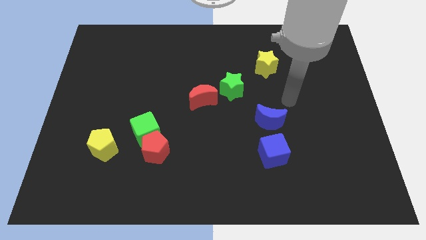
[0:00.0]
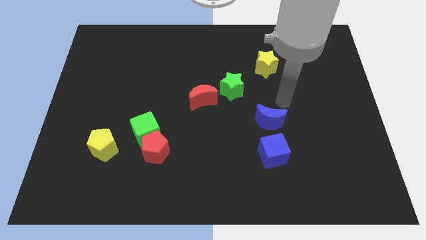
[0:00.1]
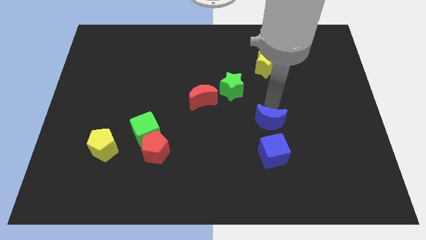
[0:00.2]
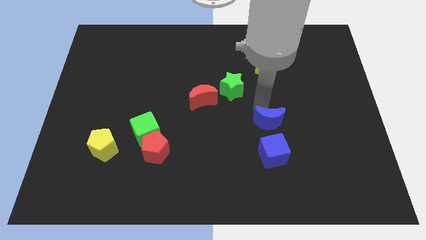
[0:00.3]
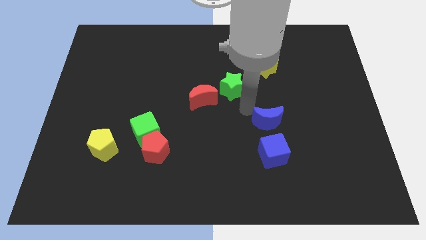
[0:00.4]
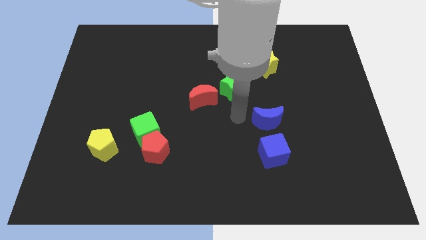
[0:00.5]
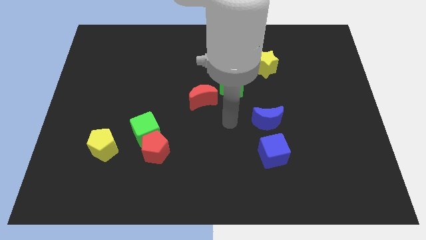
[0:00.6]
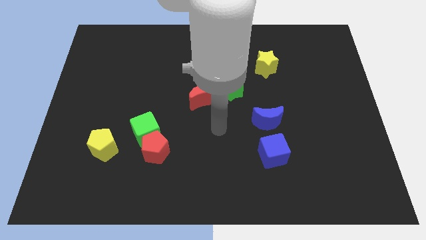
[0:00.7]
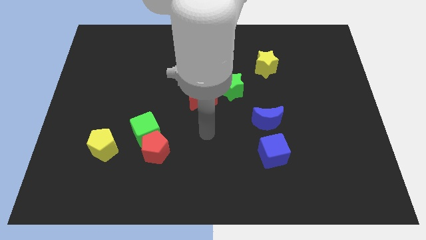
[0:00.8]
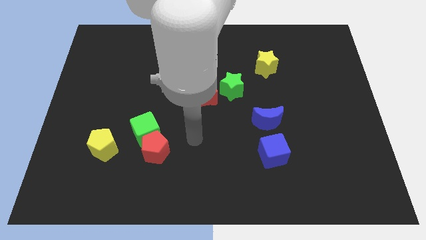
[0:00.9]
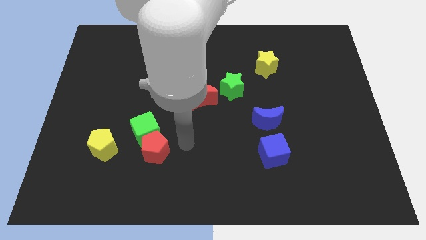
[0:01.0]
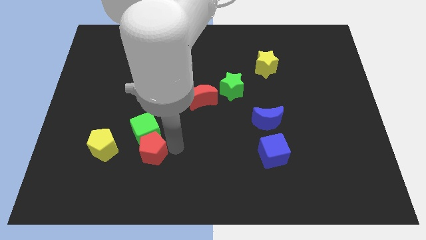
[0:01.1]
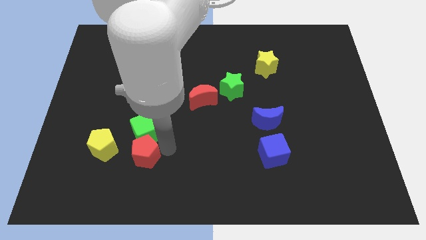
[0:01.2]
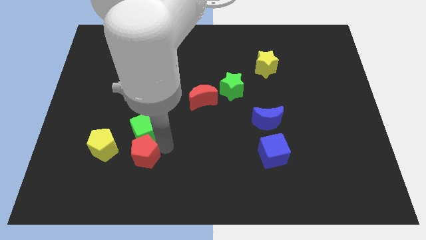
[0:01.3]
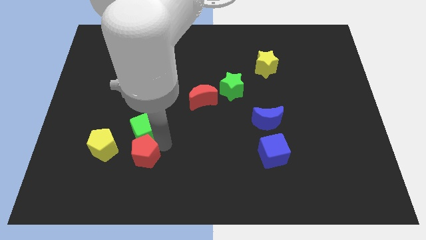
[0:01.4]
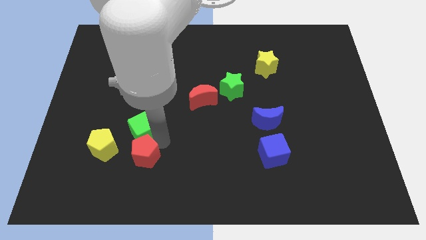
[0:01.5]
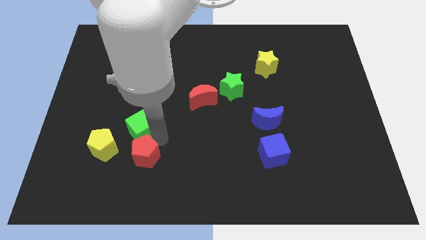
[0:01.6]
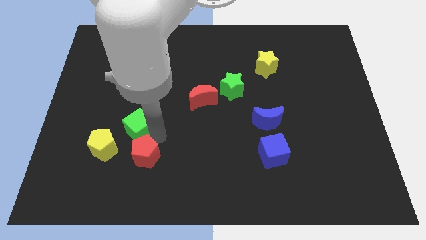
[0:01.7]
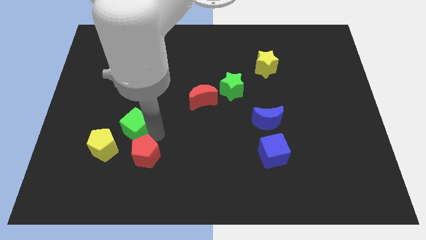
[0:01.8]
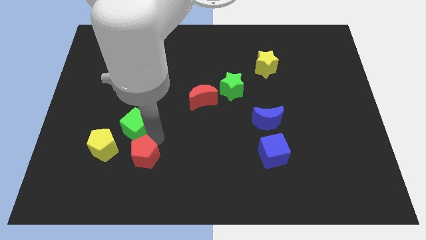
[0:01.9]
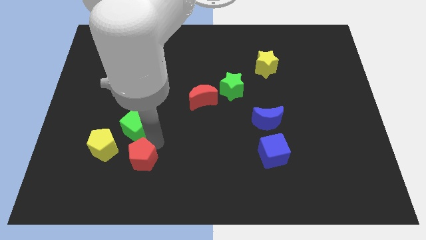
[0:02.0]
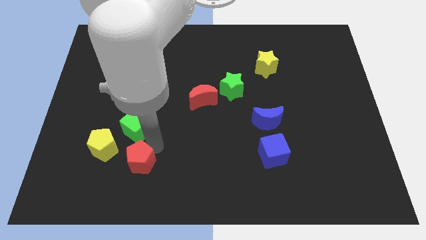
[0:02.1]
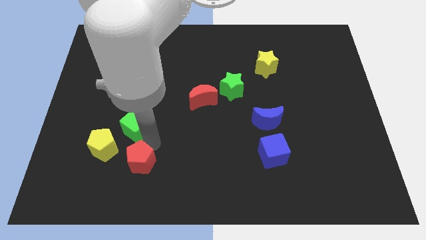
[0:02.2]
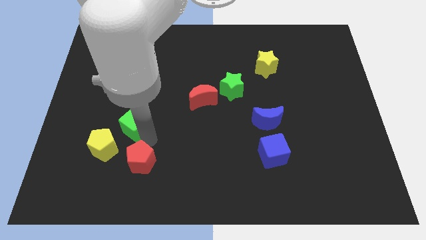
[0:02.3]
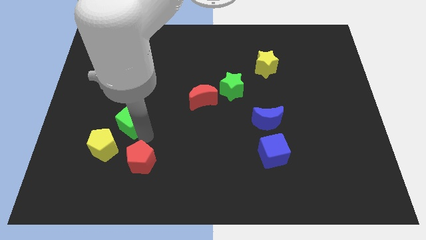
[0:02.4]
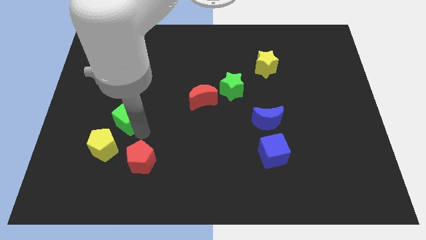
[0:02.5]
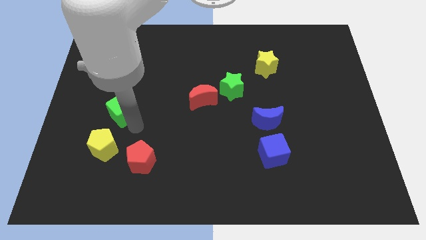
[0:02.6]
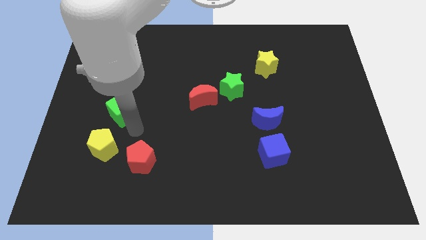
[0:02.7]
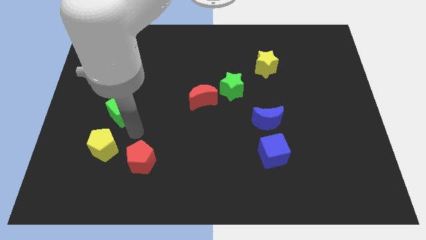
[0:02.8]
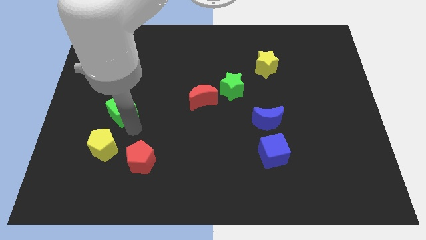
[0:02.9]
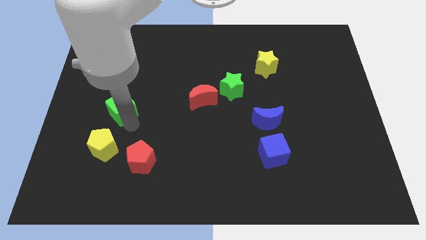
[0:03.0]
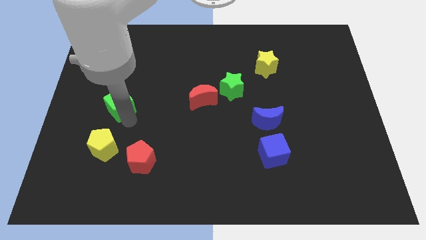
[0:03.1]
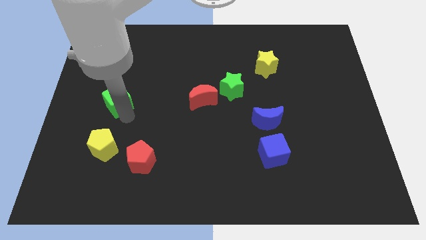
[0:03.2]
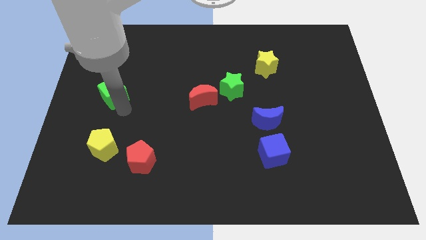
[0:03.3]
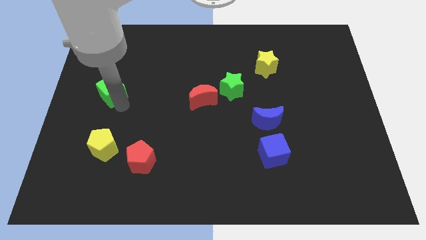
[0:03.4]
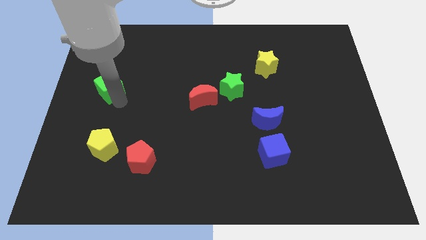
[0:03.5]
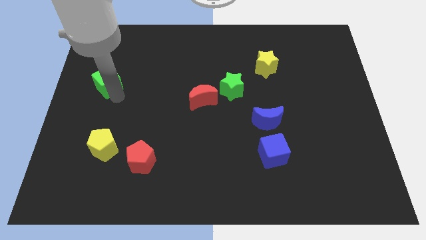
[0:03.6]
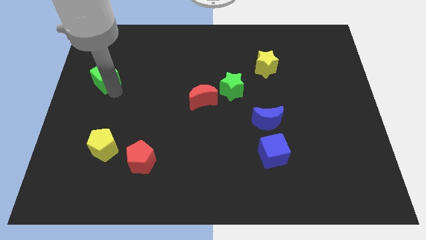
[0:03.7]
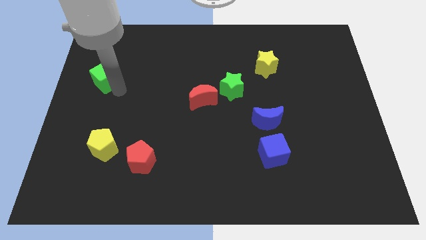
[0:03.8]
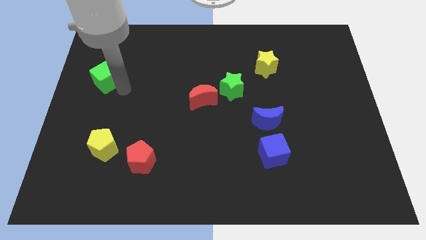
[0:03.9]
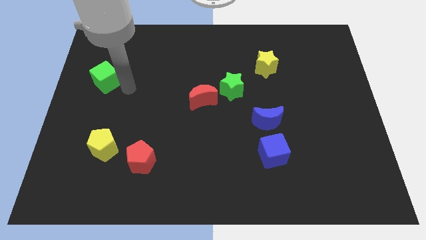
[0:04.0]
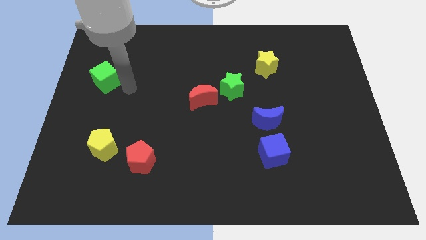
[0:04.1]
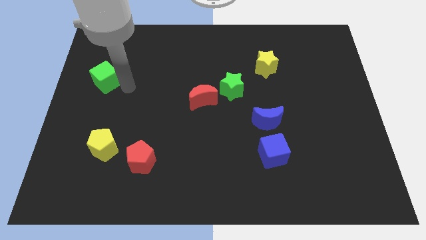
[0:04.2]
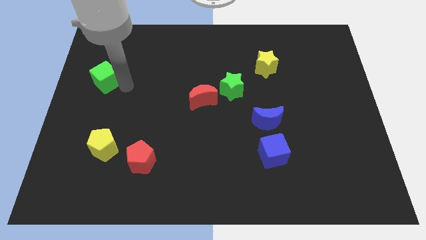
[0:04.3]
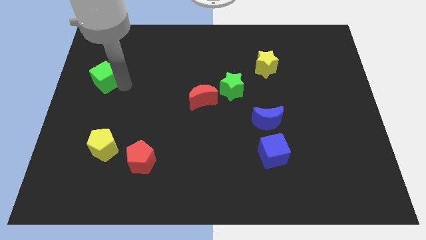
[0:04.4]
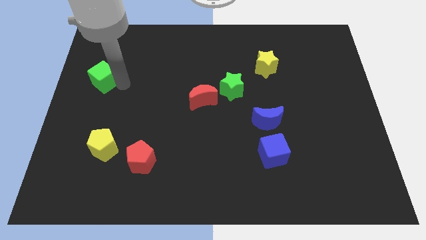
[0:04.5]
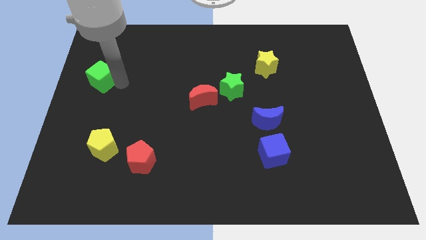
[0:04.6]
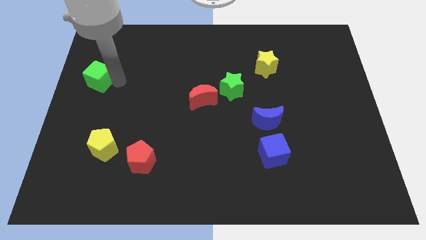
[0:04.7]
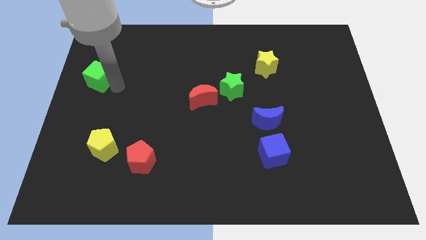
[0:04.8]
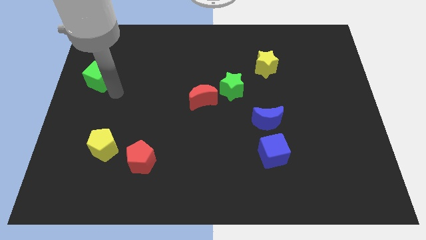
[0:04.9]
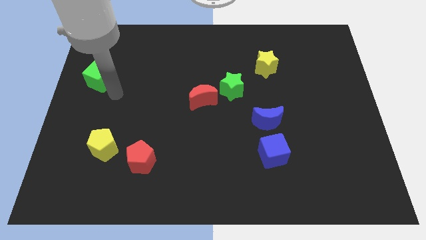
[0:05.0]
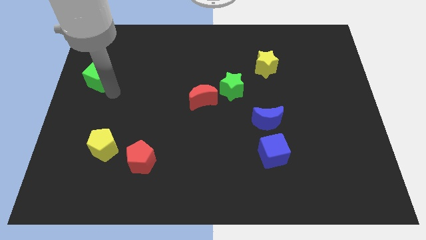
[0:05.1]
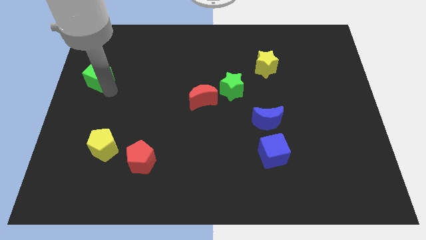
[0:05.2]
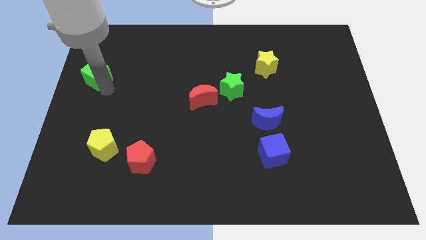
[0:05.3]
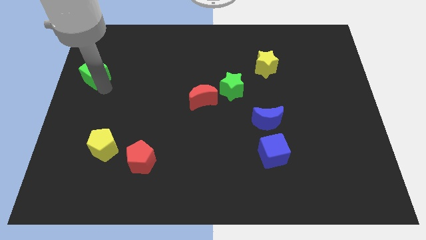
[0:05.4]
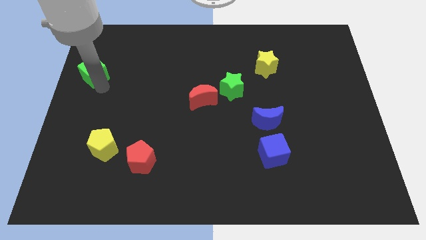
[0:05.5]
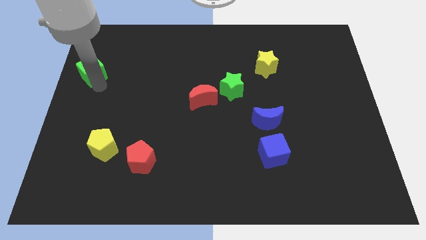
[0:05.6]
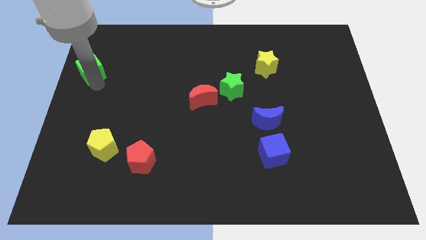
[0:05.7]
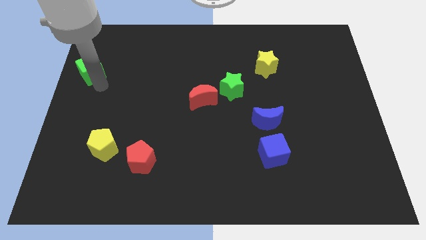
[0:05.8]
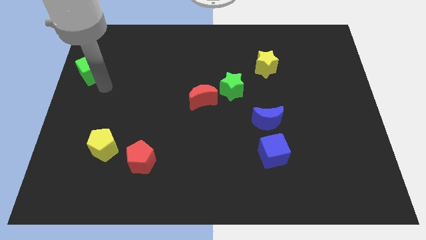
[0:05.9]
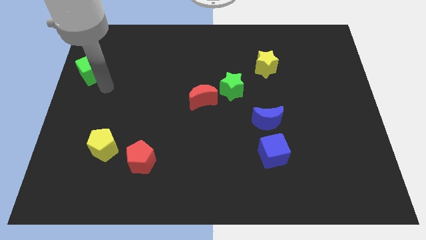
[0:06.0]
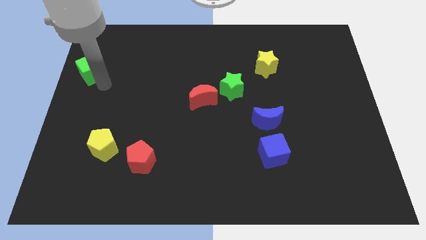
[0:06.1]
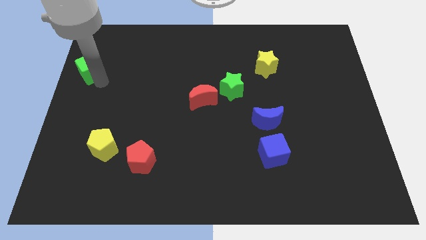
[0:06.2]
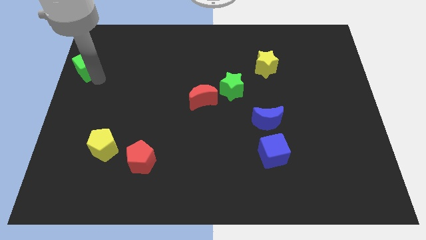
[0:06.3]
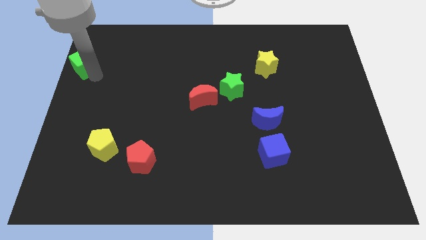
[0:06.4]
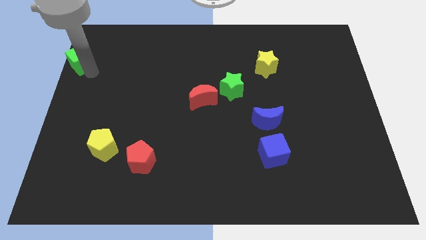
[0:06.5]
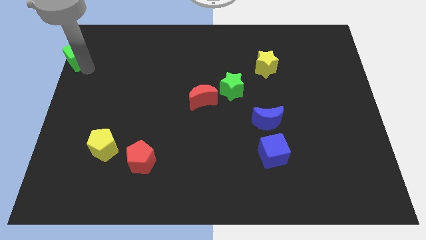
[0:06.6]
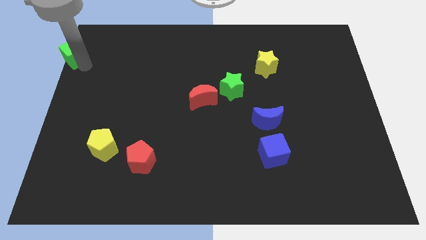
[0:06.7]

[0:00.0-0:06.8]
move the green cube to the top left of the board

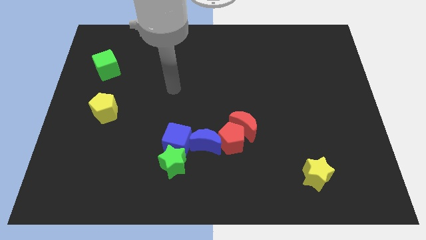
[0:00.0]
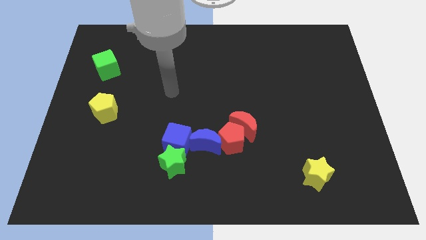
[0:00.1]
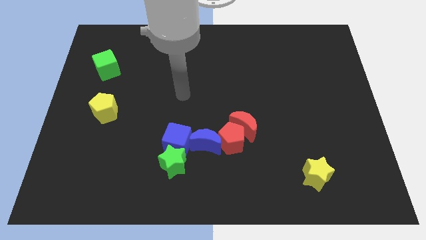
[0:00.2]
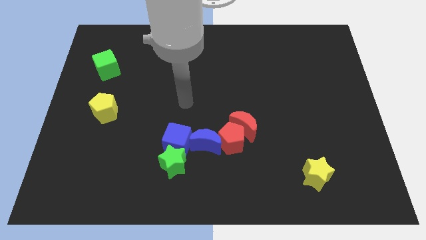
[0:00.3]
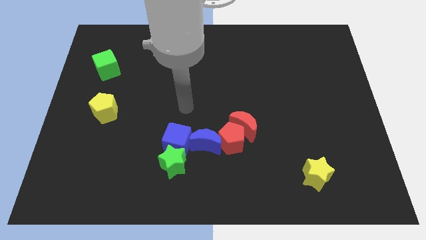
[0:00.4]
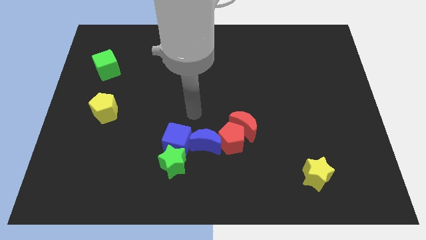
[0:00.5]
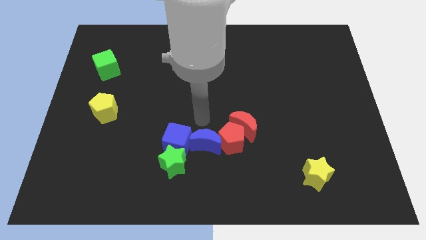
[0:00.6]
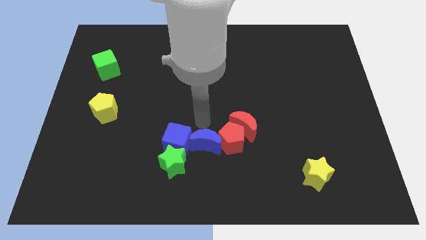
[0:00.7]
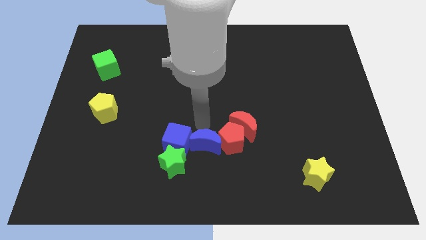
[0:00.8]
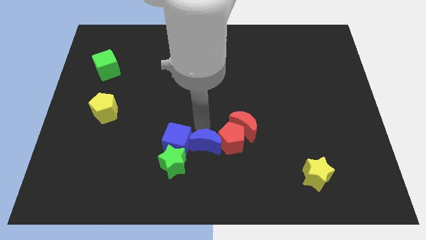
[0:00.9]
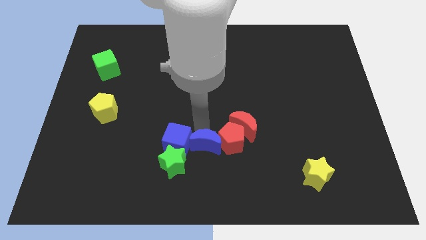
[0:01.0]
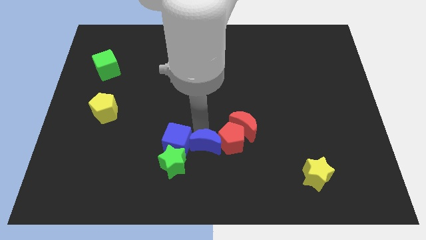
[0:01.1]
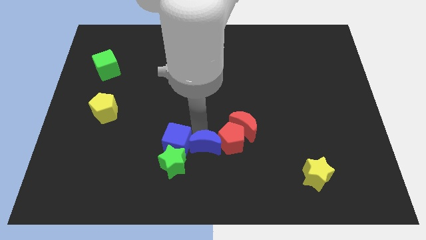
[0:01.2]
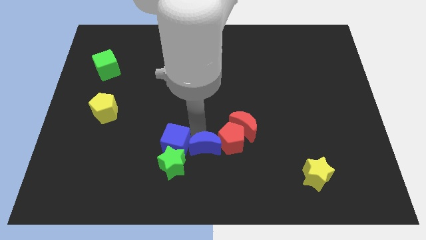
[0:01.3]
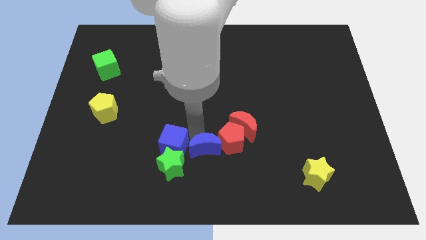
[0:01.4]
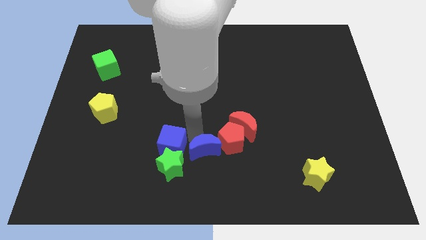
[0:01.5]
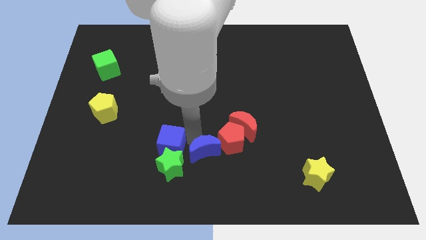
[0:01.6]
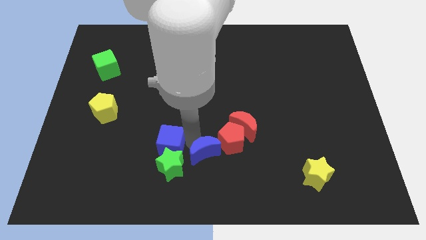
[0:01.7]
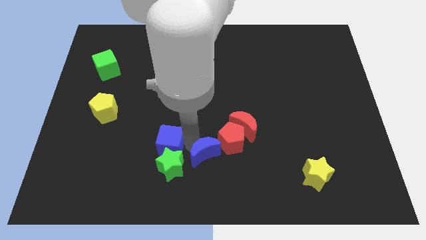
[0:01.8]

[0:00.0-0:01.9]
move the blue moon to the bottom side
